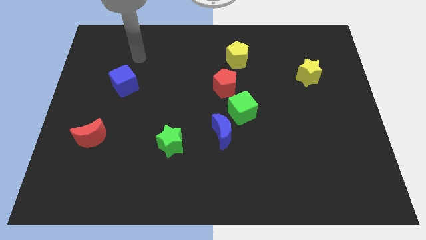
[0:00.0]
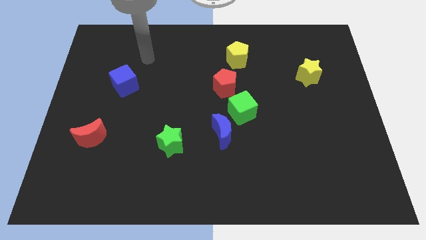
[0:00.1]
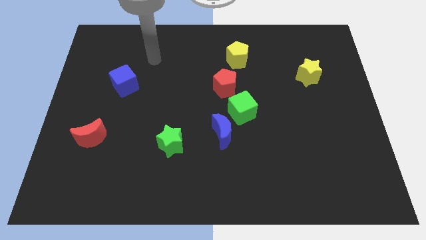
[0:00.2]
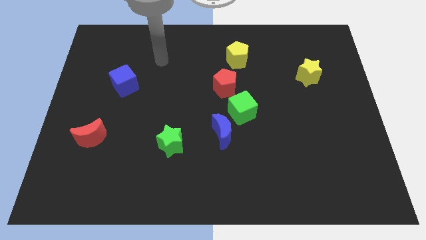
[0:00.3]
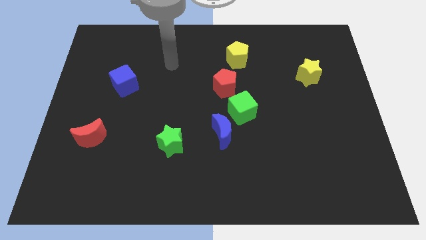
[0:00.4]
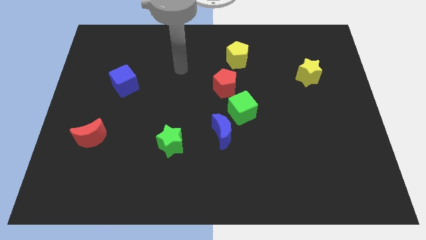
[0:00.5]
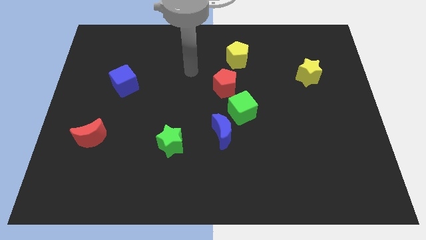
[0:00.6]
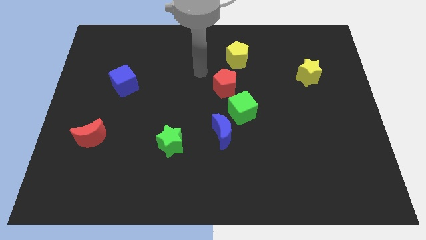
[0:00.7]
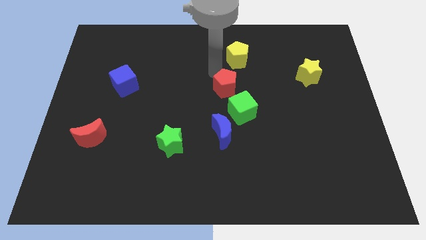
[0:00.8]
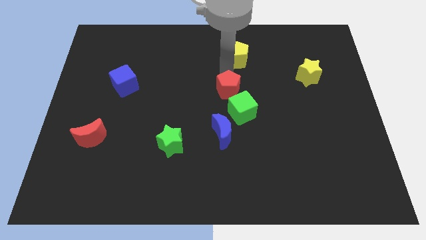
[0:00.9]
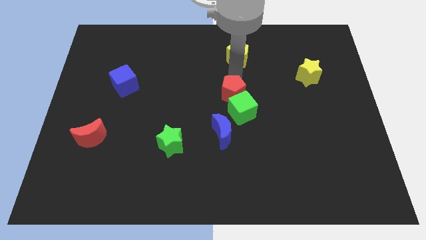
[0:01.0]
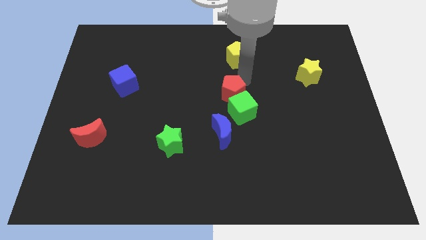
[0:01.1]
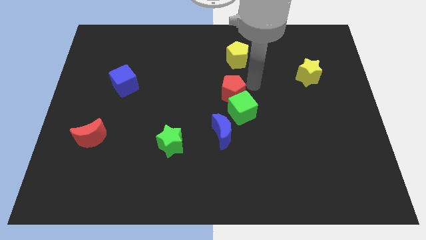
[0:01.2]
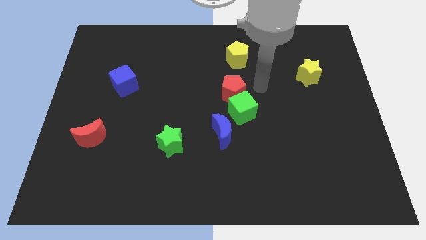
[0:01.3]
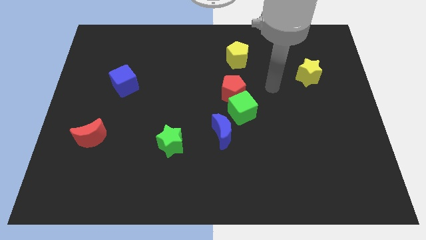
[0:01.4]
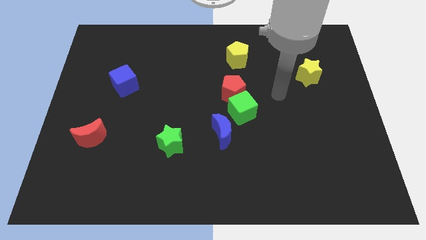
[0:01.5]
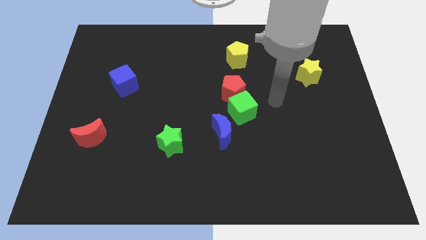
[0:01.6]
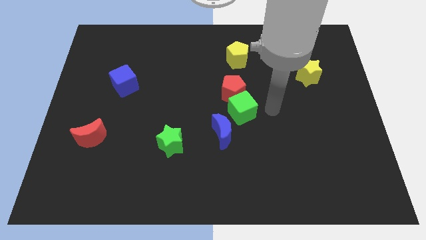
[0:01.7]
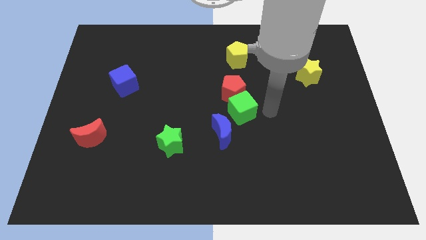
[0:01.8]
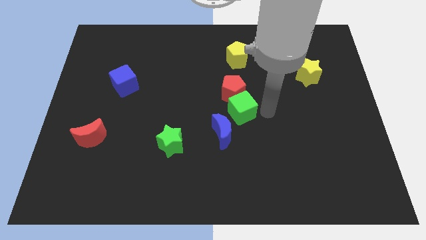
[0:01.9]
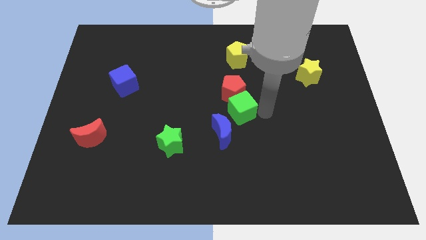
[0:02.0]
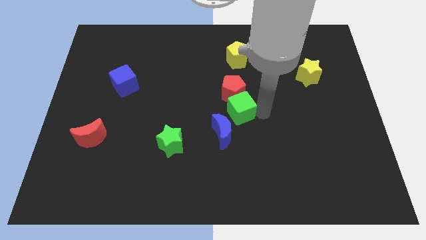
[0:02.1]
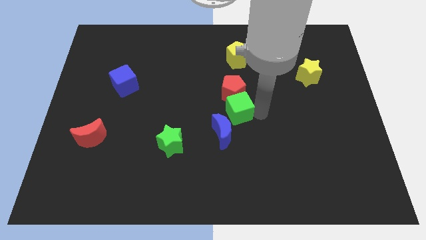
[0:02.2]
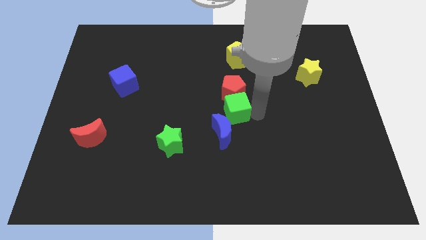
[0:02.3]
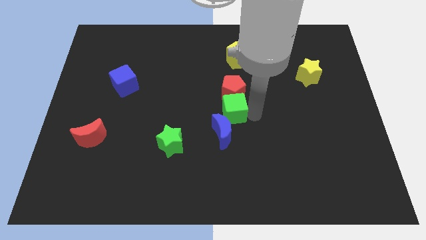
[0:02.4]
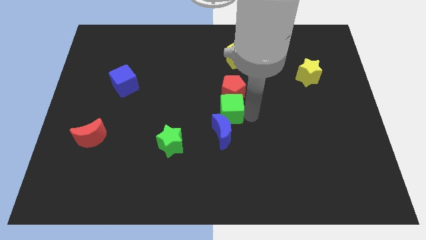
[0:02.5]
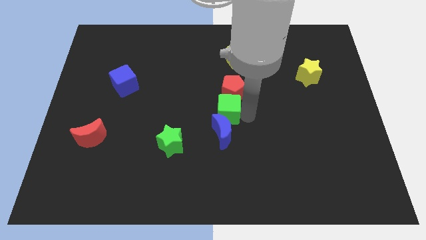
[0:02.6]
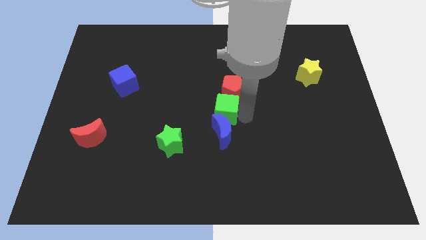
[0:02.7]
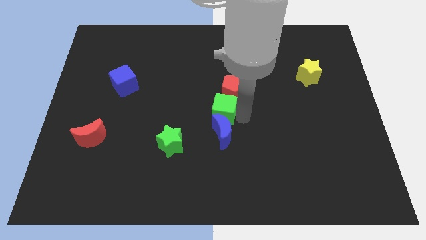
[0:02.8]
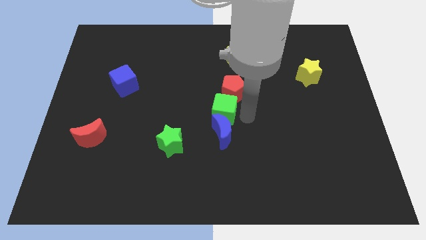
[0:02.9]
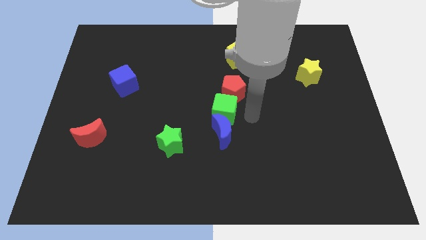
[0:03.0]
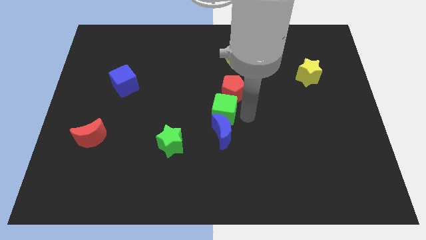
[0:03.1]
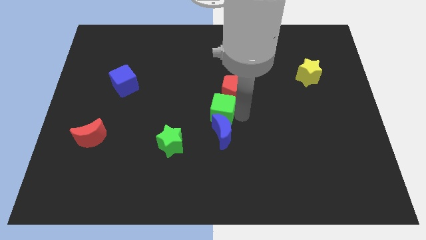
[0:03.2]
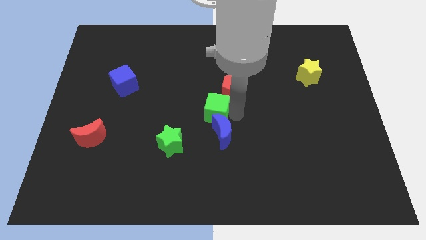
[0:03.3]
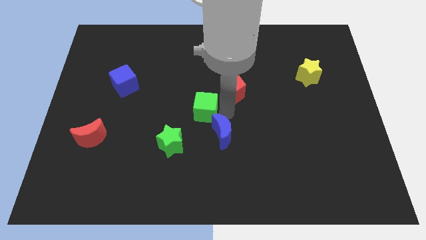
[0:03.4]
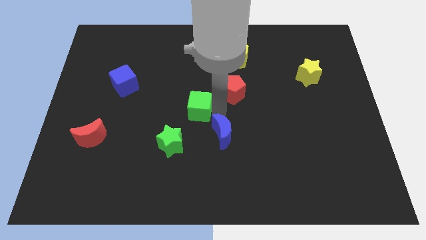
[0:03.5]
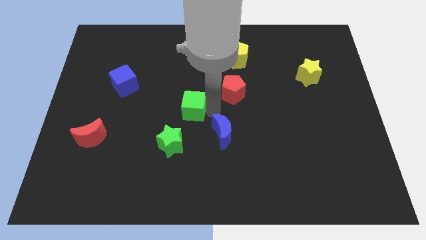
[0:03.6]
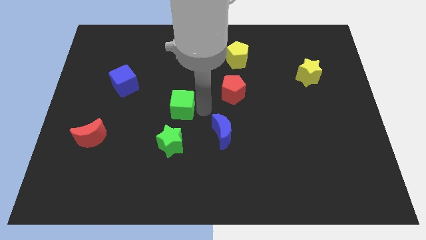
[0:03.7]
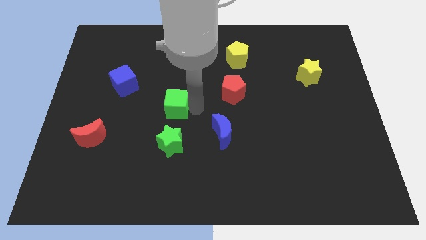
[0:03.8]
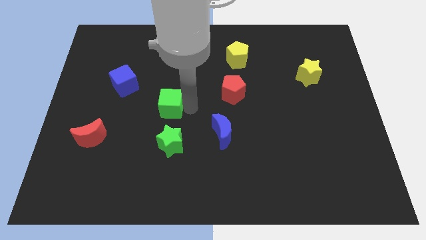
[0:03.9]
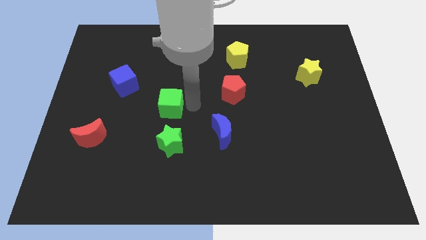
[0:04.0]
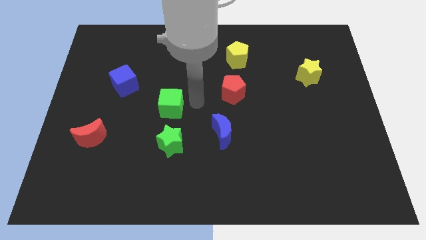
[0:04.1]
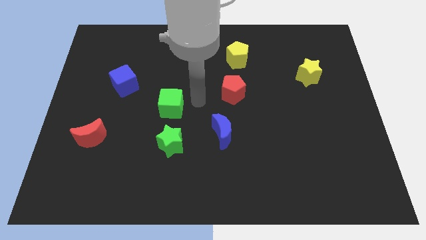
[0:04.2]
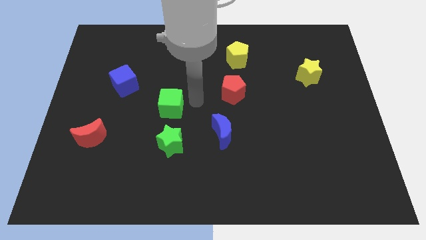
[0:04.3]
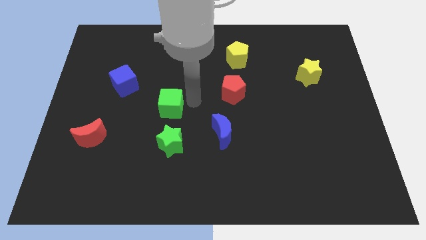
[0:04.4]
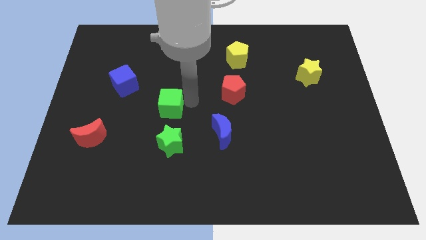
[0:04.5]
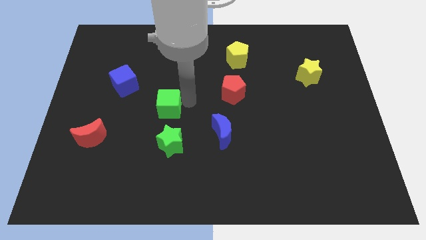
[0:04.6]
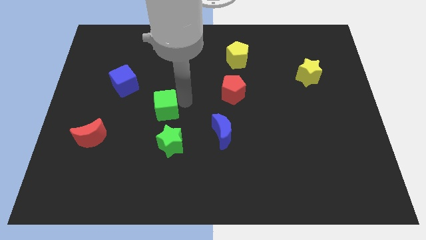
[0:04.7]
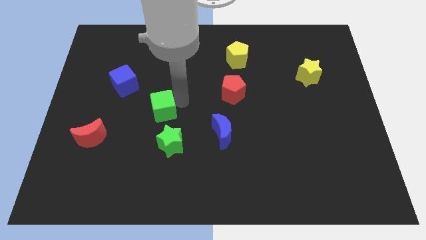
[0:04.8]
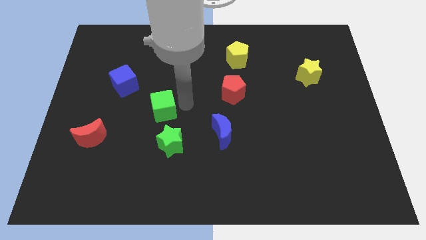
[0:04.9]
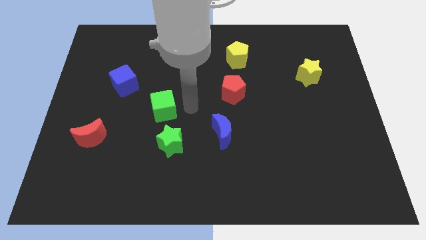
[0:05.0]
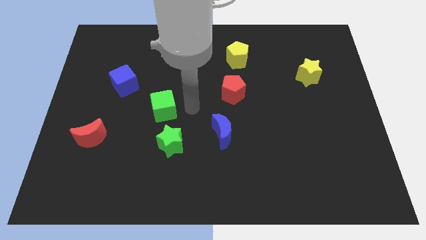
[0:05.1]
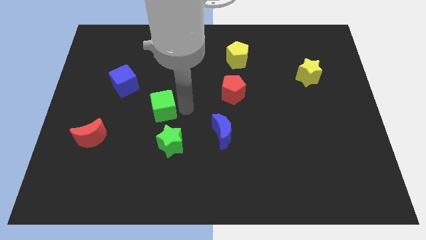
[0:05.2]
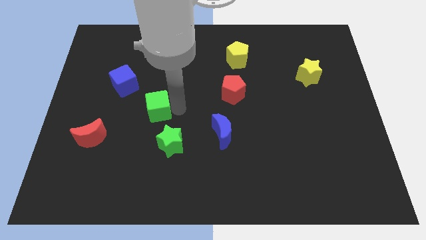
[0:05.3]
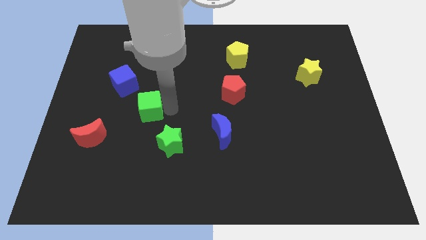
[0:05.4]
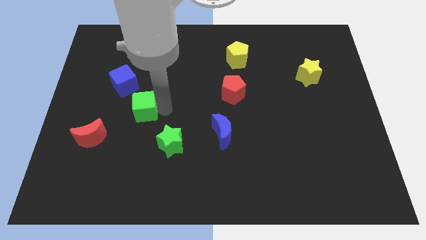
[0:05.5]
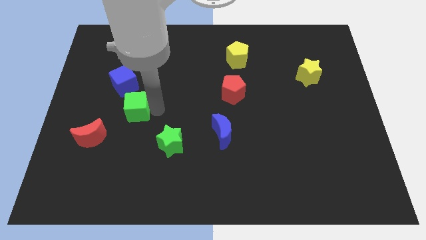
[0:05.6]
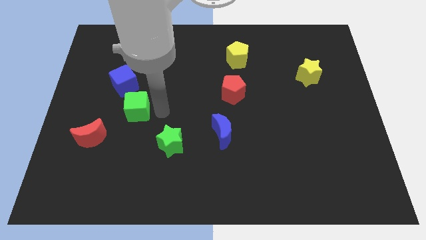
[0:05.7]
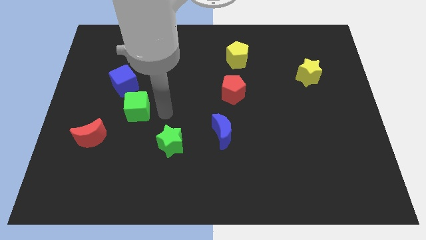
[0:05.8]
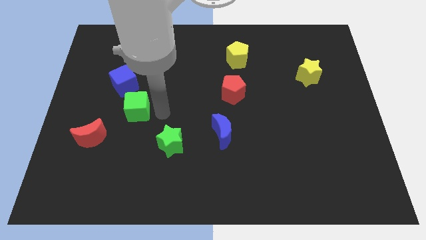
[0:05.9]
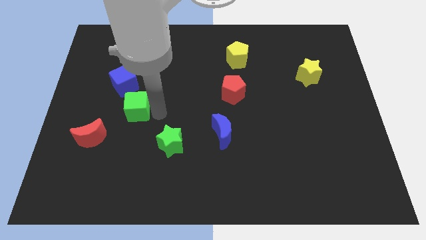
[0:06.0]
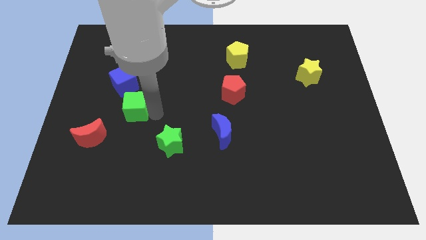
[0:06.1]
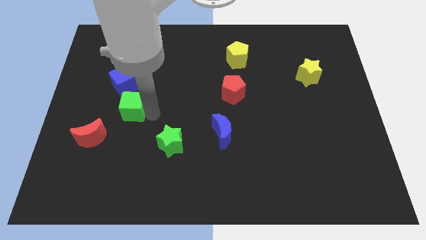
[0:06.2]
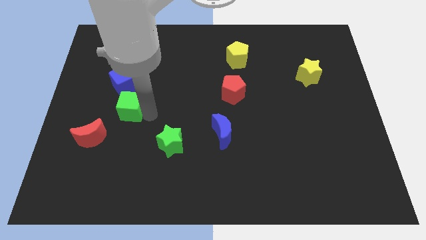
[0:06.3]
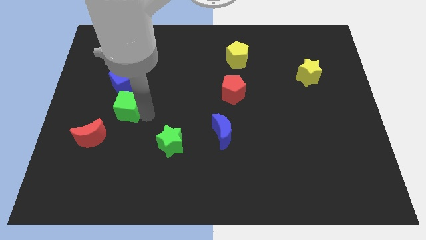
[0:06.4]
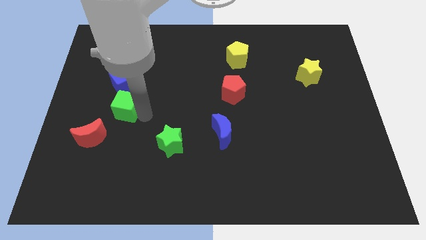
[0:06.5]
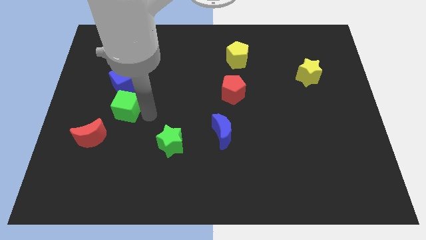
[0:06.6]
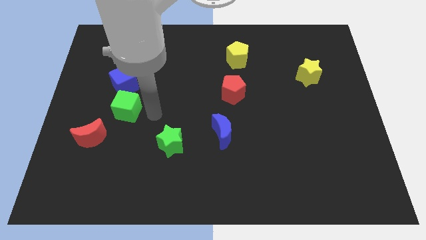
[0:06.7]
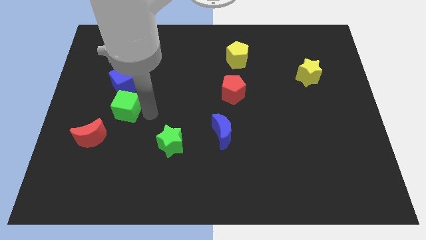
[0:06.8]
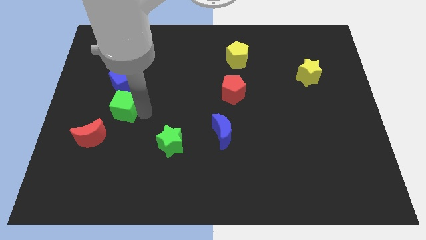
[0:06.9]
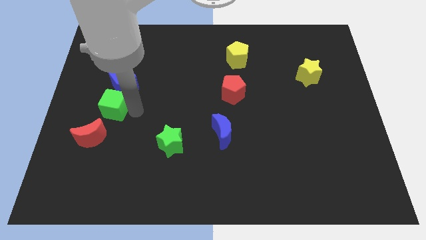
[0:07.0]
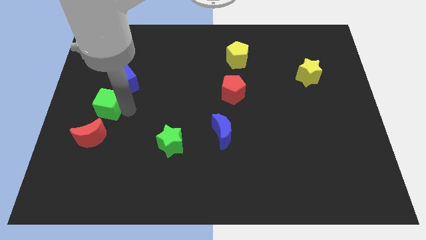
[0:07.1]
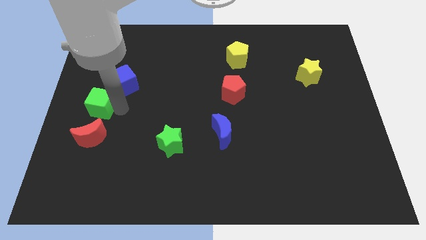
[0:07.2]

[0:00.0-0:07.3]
push the green cube to the left side of the board
